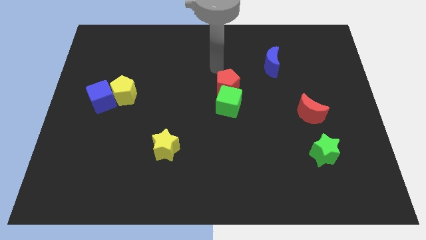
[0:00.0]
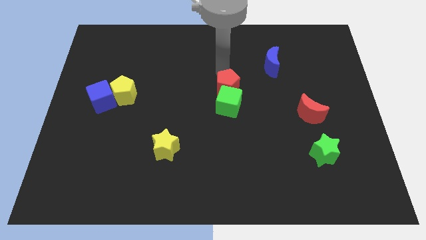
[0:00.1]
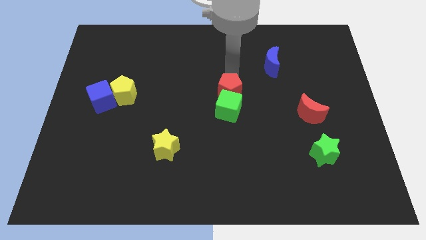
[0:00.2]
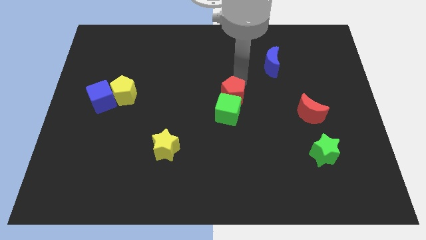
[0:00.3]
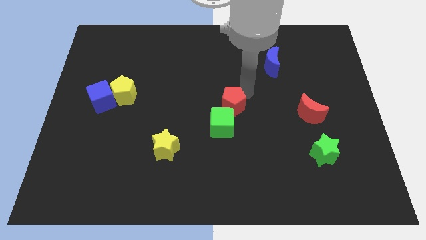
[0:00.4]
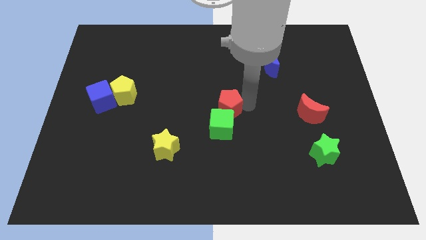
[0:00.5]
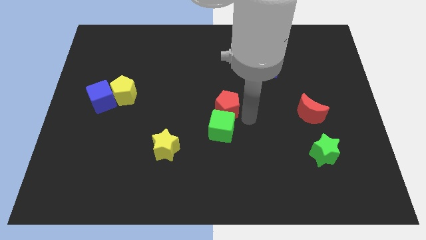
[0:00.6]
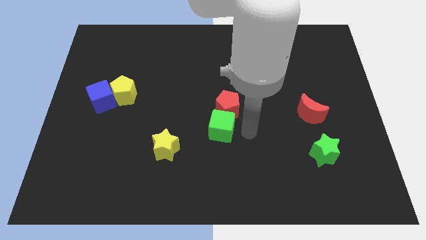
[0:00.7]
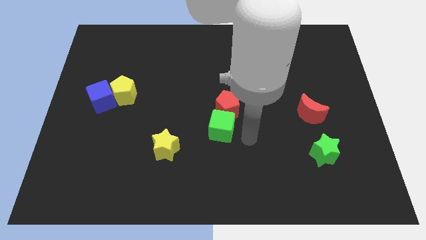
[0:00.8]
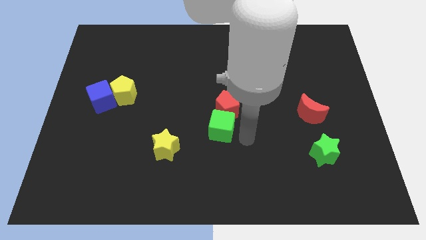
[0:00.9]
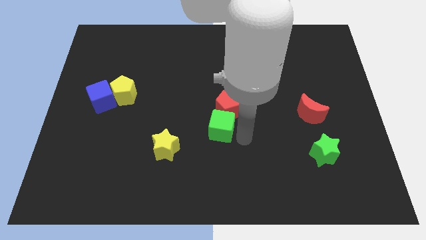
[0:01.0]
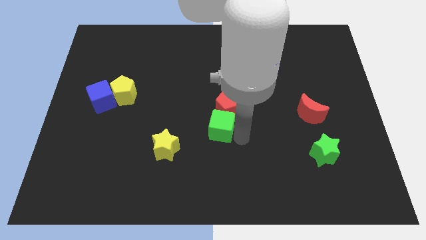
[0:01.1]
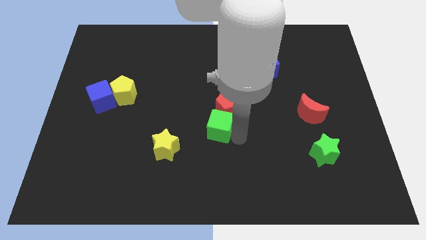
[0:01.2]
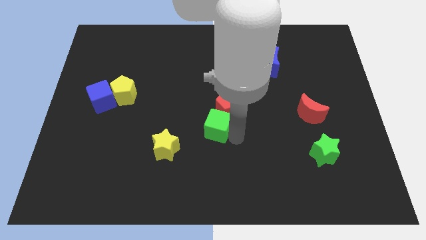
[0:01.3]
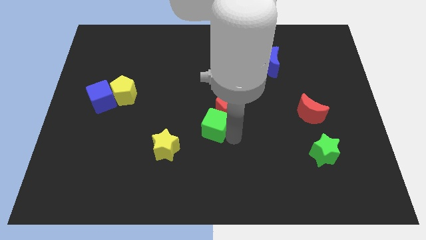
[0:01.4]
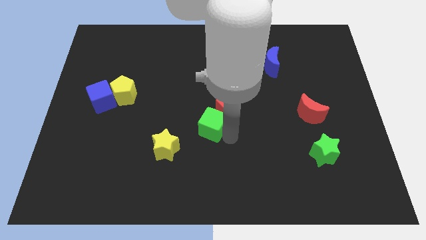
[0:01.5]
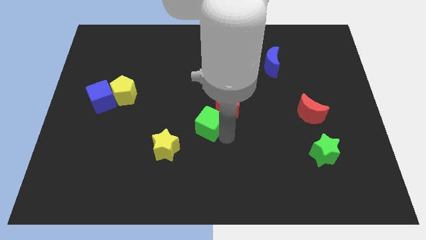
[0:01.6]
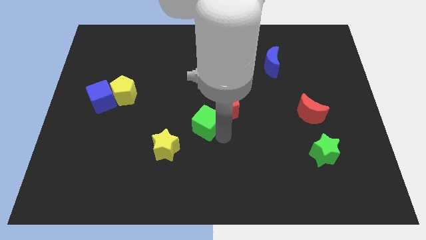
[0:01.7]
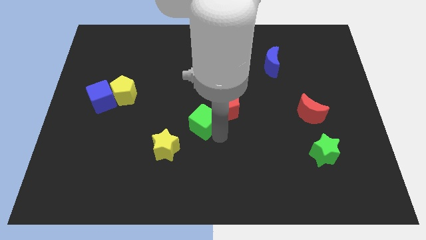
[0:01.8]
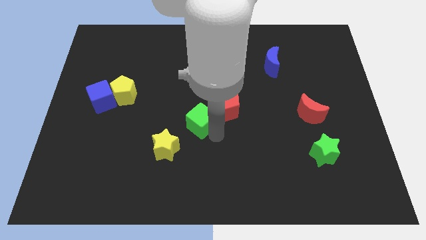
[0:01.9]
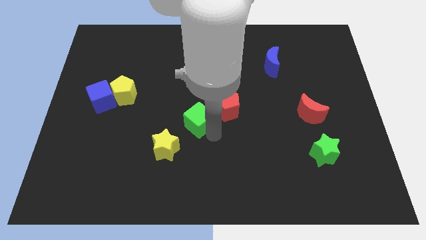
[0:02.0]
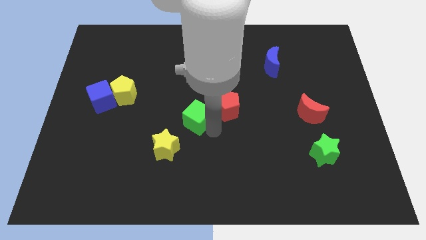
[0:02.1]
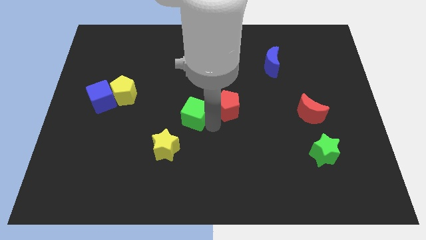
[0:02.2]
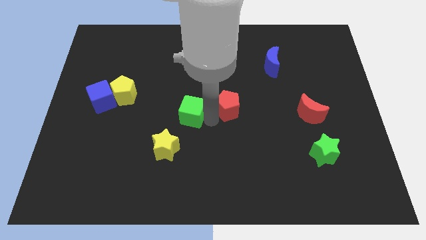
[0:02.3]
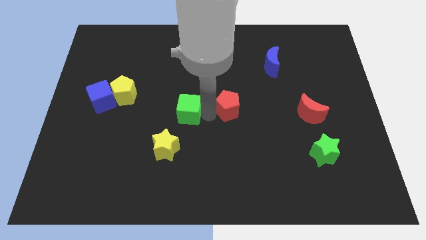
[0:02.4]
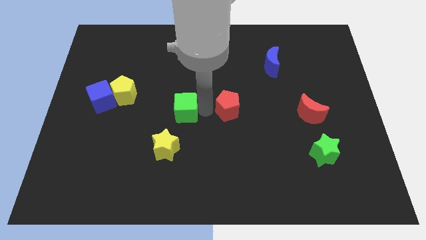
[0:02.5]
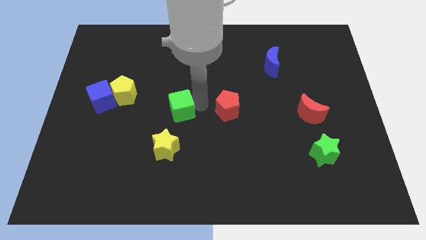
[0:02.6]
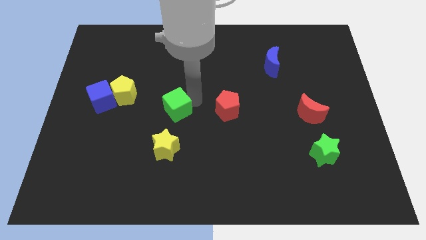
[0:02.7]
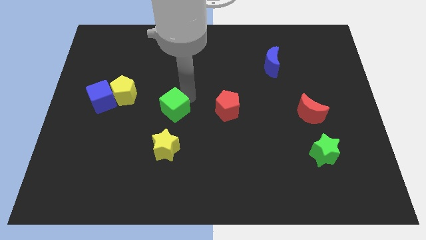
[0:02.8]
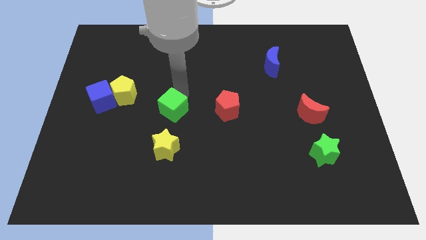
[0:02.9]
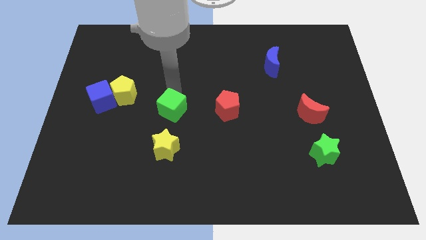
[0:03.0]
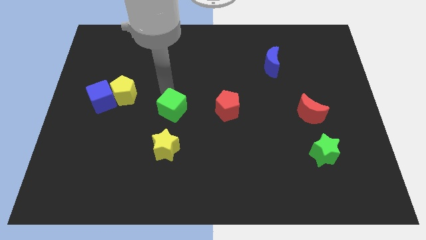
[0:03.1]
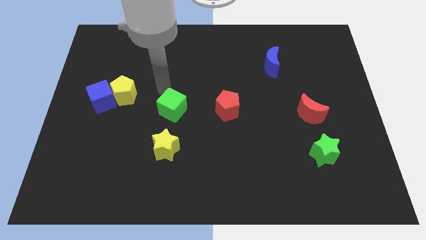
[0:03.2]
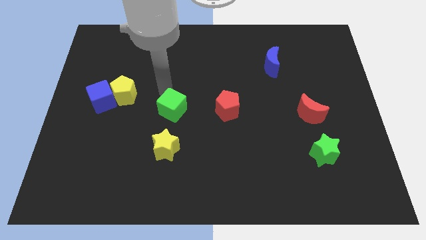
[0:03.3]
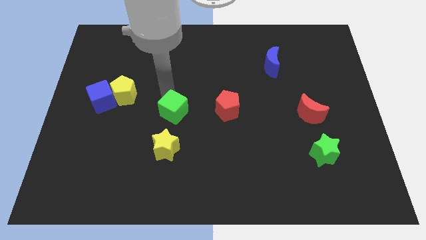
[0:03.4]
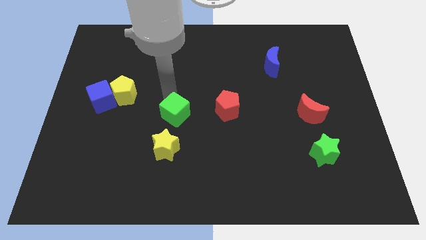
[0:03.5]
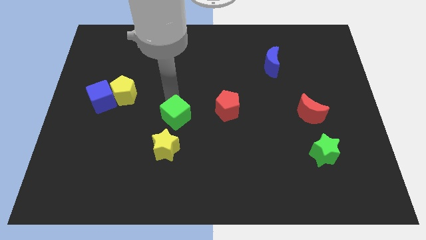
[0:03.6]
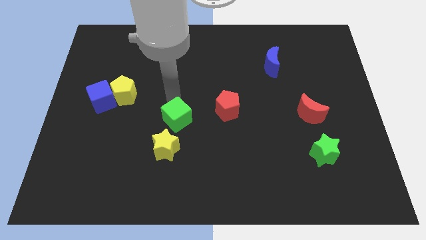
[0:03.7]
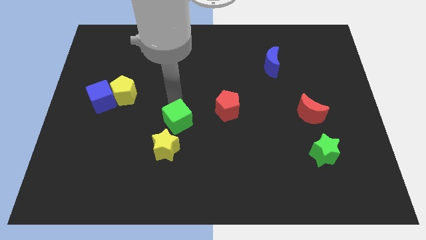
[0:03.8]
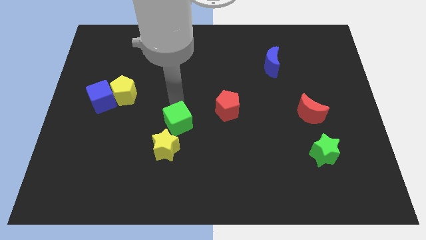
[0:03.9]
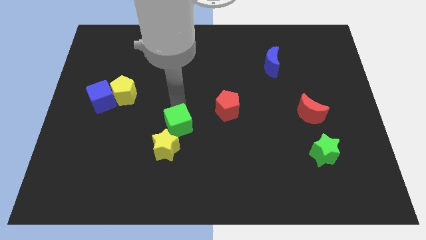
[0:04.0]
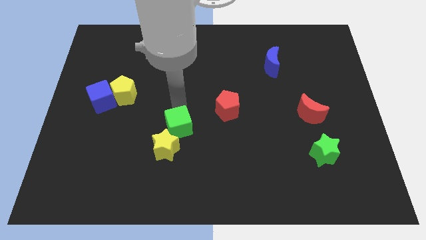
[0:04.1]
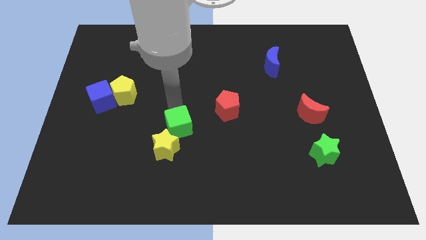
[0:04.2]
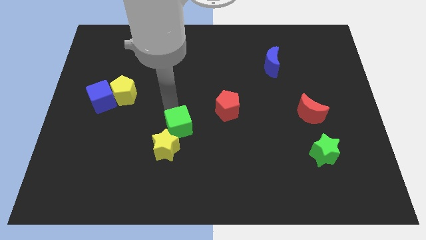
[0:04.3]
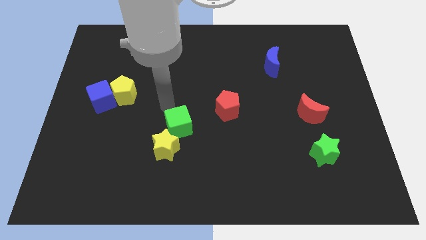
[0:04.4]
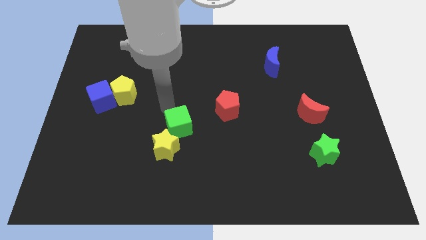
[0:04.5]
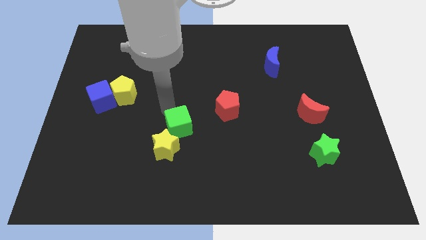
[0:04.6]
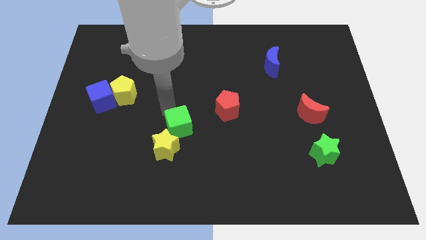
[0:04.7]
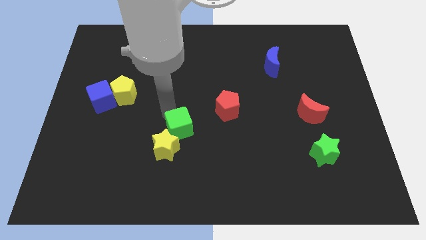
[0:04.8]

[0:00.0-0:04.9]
put the green cube to the yellow star

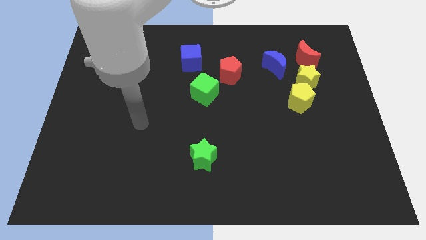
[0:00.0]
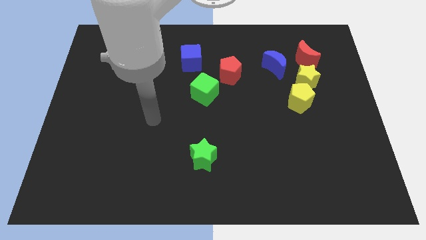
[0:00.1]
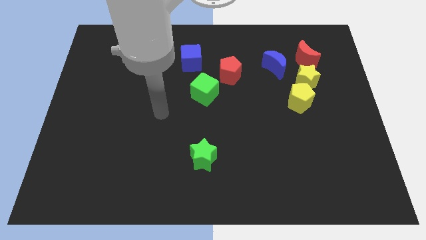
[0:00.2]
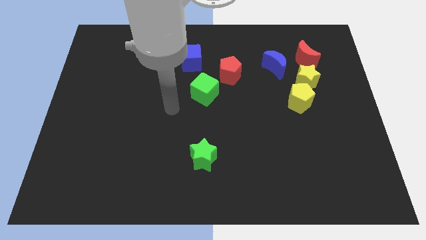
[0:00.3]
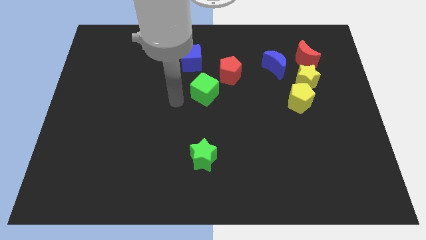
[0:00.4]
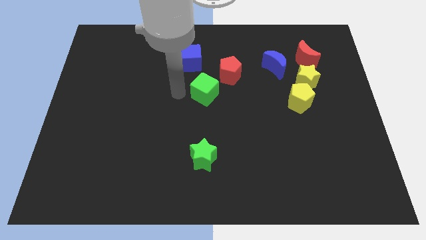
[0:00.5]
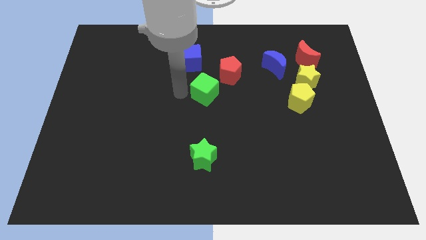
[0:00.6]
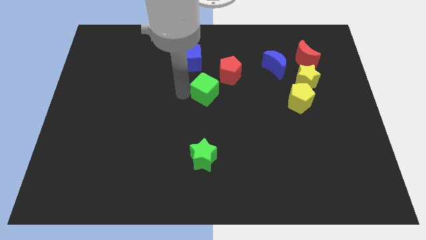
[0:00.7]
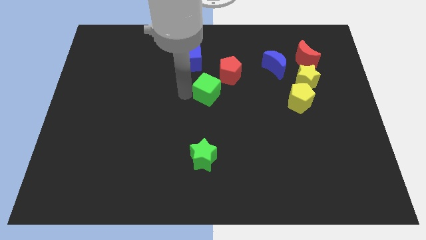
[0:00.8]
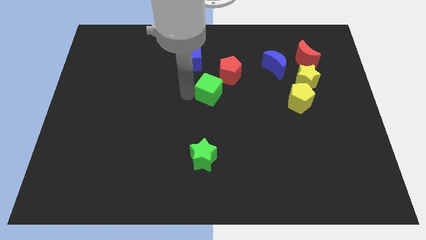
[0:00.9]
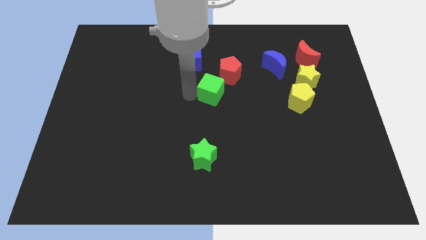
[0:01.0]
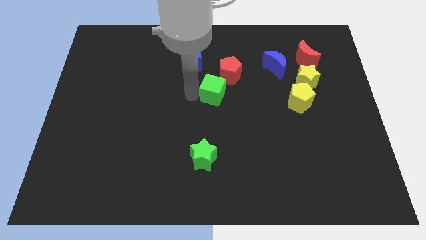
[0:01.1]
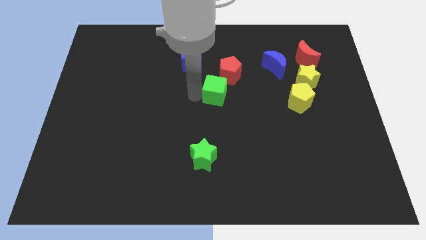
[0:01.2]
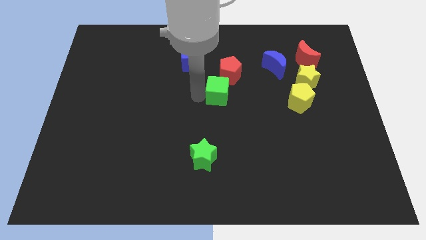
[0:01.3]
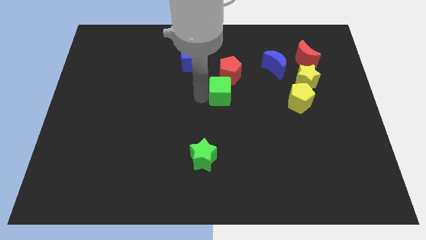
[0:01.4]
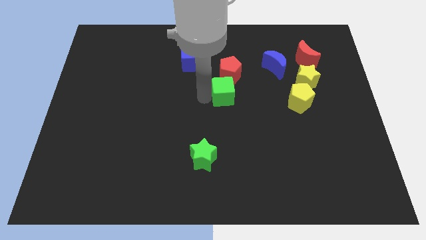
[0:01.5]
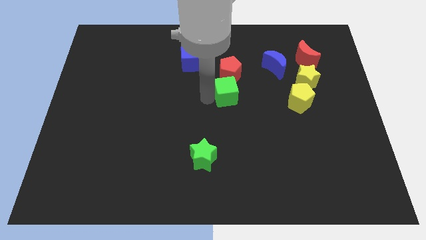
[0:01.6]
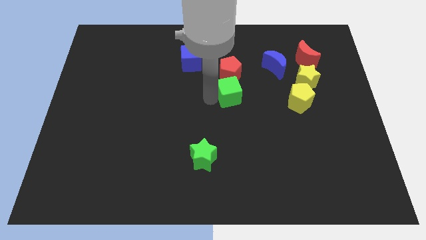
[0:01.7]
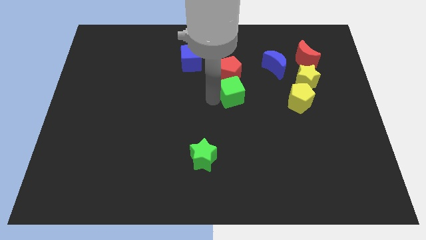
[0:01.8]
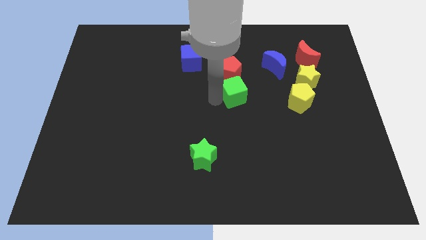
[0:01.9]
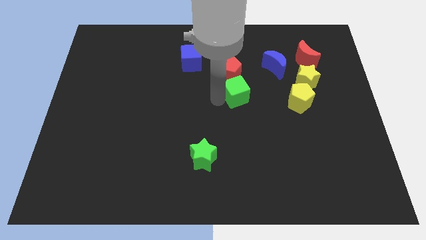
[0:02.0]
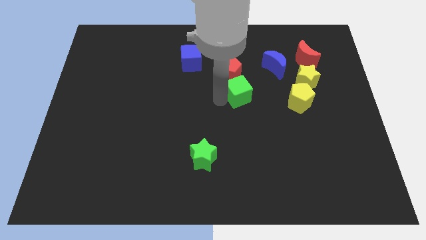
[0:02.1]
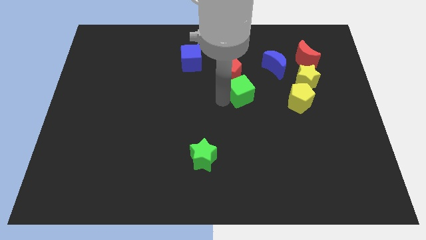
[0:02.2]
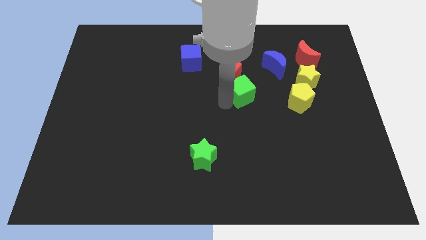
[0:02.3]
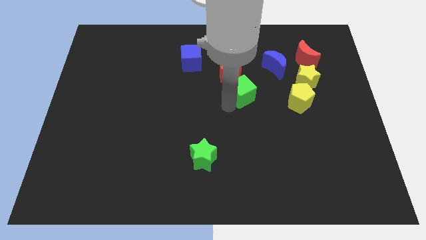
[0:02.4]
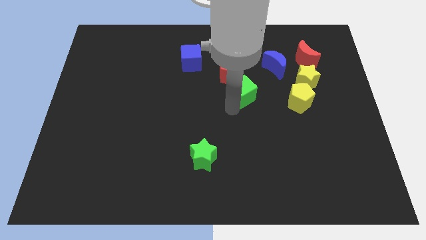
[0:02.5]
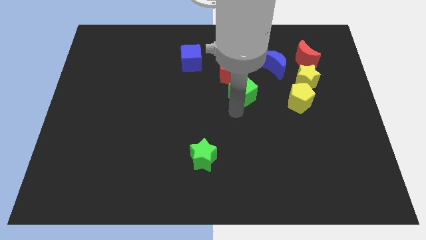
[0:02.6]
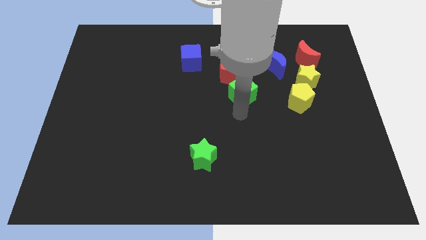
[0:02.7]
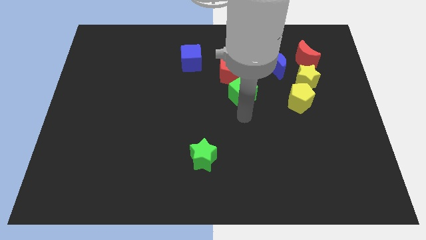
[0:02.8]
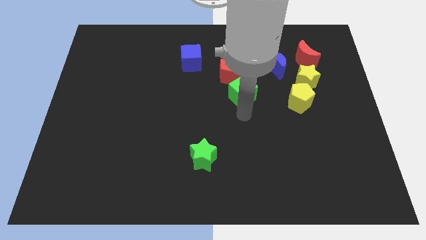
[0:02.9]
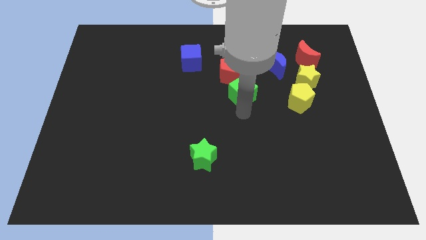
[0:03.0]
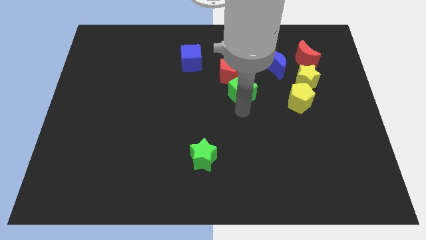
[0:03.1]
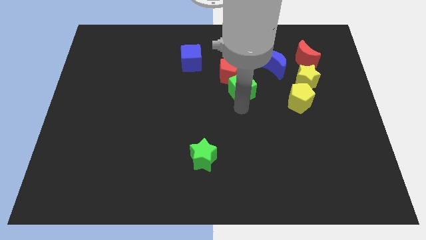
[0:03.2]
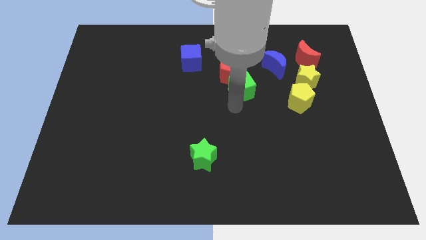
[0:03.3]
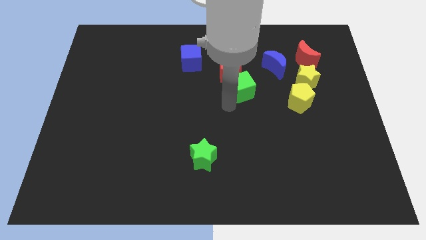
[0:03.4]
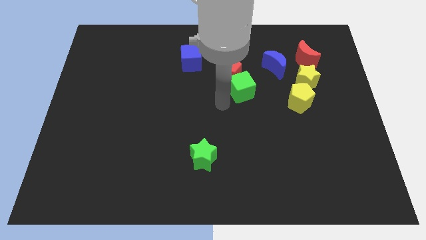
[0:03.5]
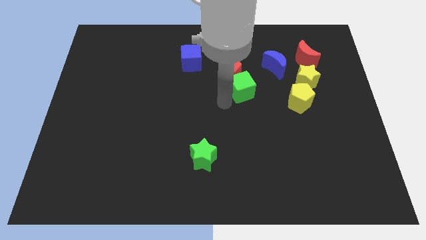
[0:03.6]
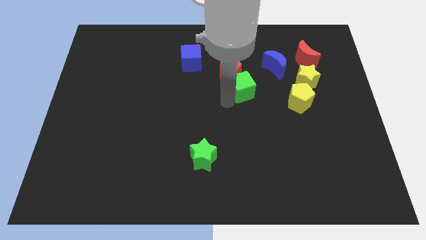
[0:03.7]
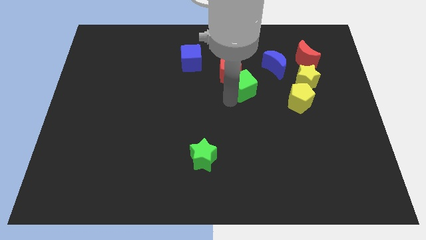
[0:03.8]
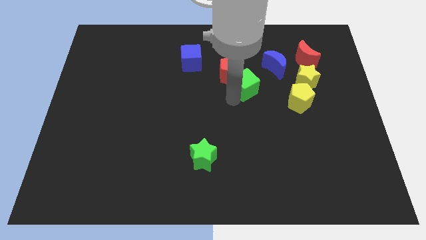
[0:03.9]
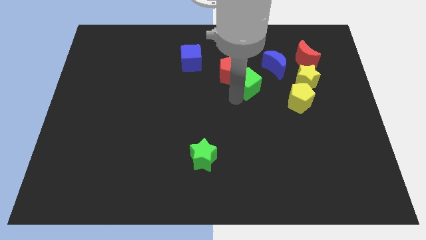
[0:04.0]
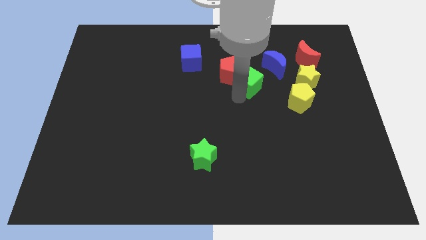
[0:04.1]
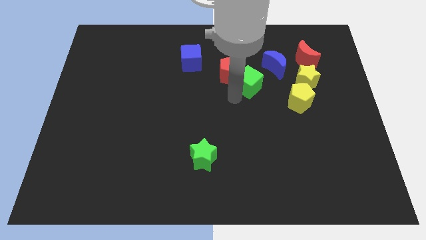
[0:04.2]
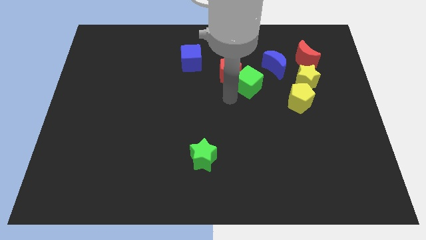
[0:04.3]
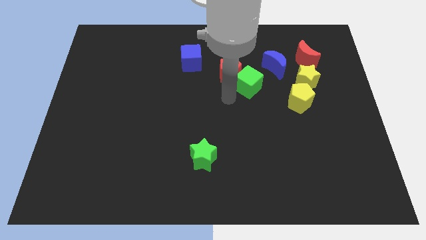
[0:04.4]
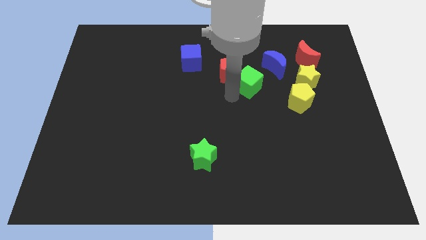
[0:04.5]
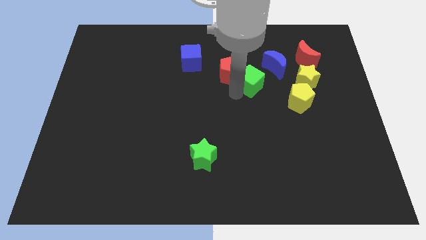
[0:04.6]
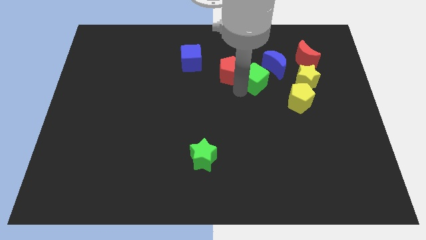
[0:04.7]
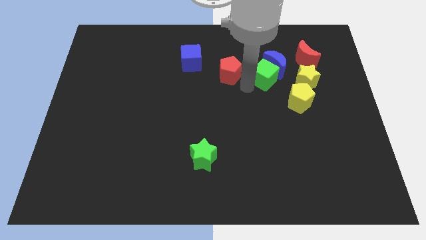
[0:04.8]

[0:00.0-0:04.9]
push the green cube to the blue moon
